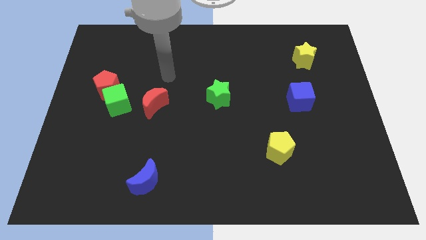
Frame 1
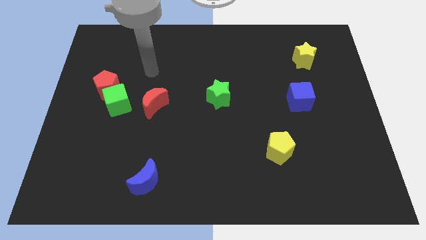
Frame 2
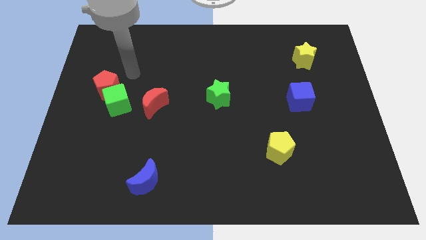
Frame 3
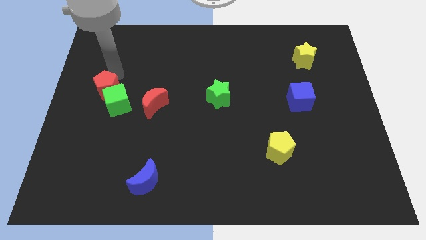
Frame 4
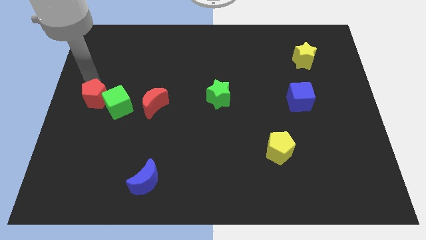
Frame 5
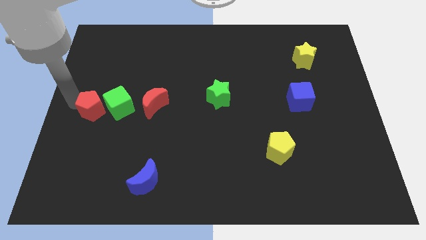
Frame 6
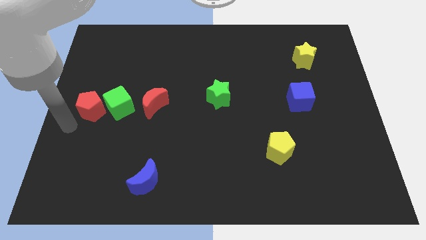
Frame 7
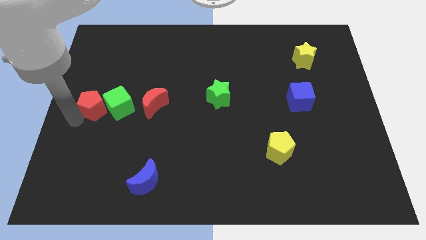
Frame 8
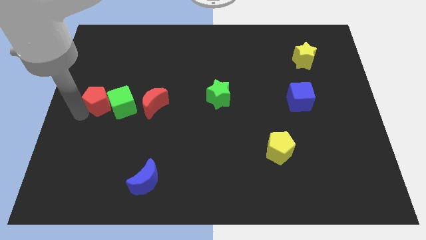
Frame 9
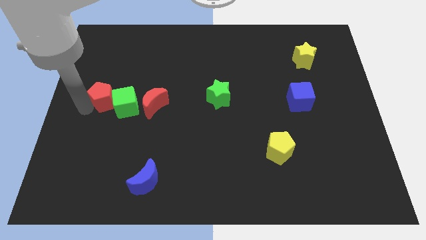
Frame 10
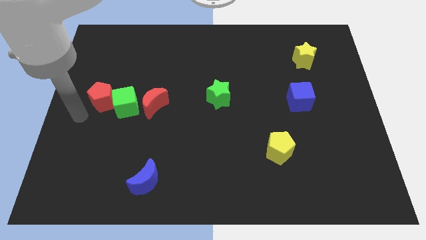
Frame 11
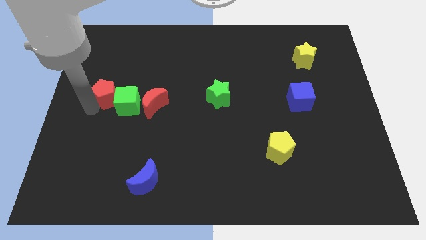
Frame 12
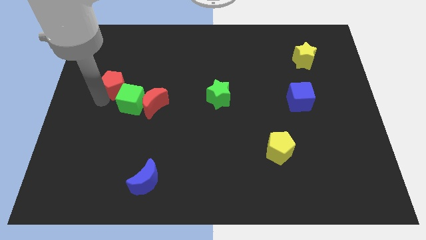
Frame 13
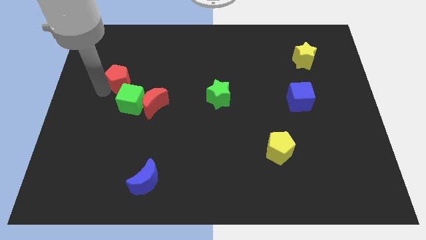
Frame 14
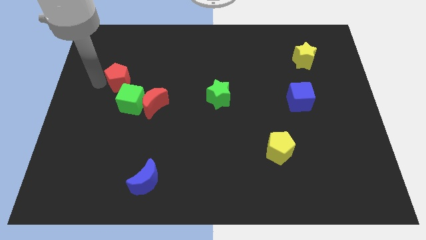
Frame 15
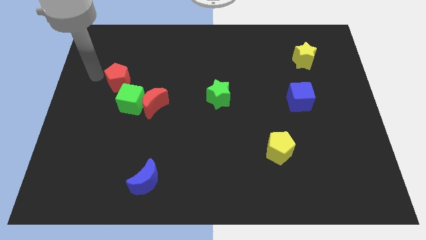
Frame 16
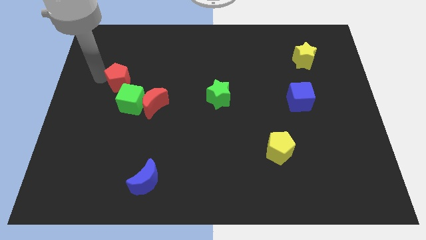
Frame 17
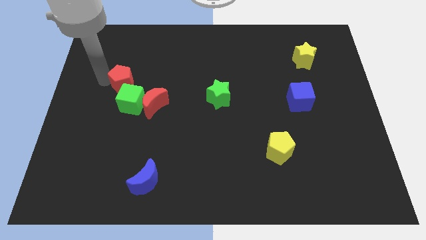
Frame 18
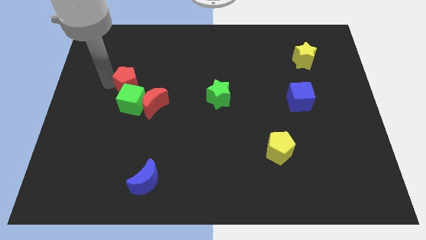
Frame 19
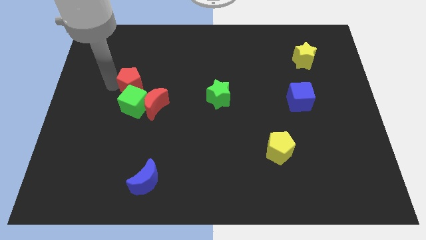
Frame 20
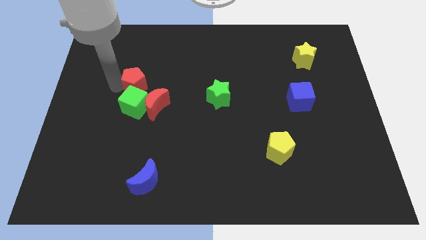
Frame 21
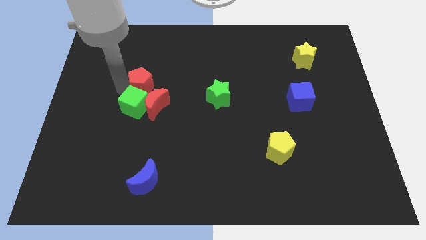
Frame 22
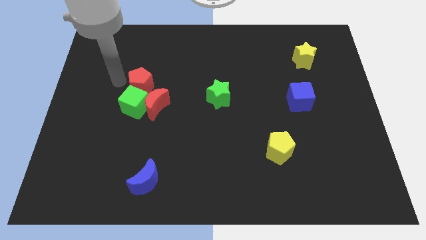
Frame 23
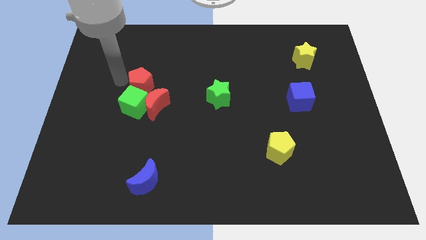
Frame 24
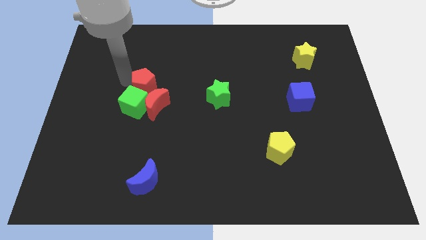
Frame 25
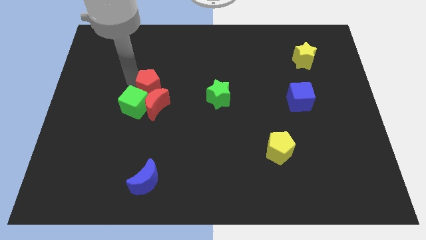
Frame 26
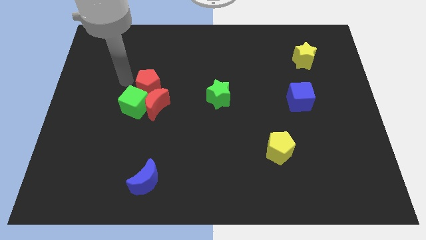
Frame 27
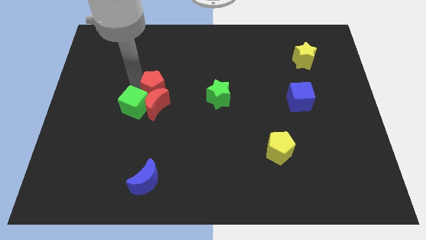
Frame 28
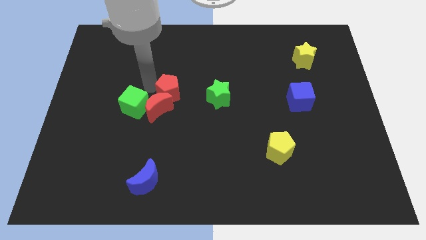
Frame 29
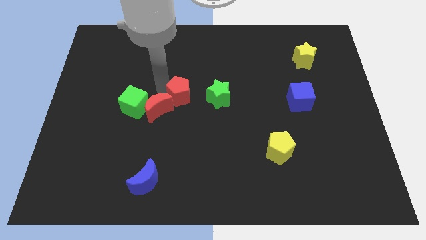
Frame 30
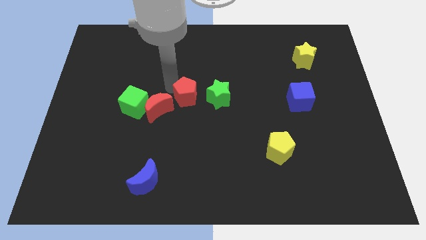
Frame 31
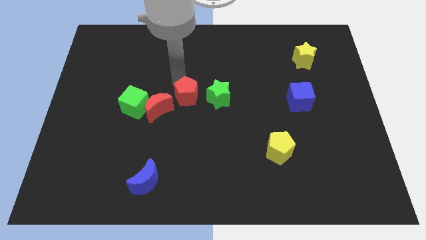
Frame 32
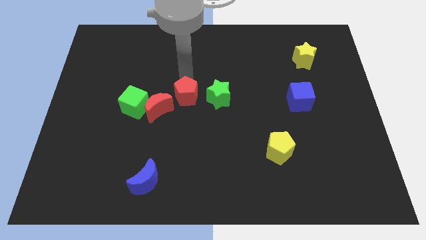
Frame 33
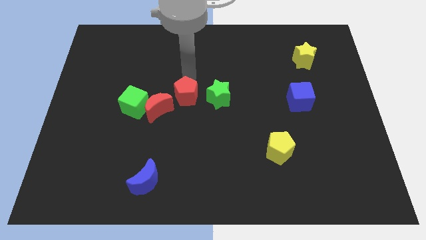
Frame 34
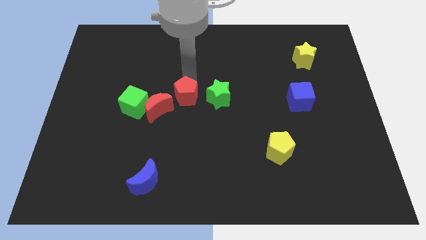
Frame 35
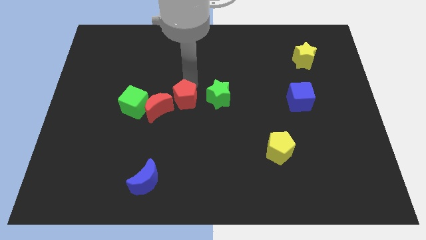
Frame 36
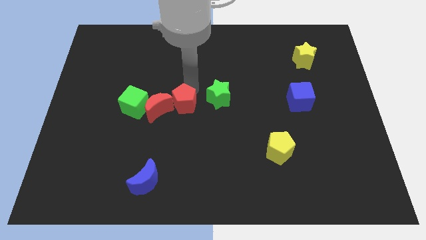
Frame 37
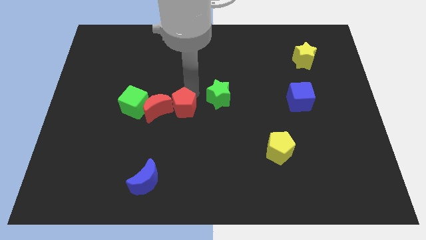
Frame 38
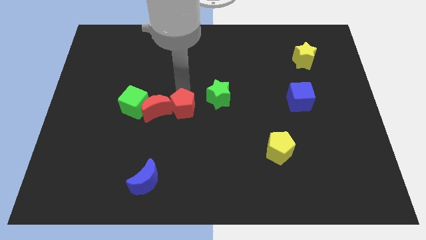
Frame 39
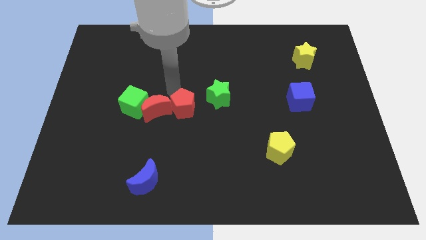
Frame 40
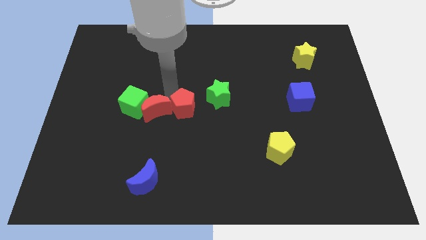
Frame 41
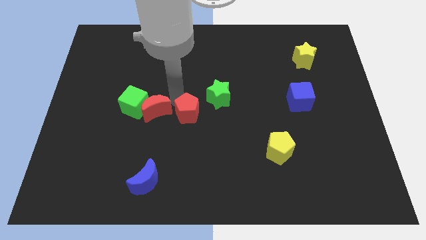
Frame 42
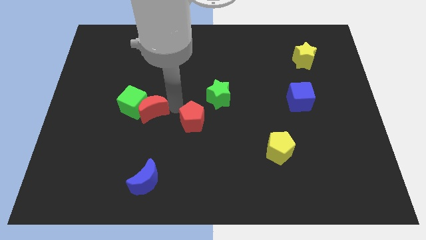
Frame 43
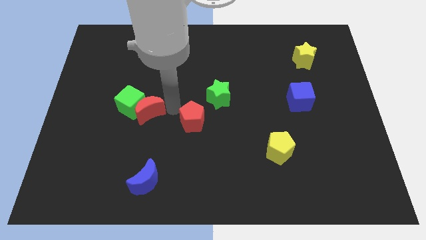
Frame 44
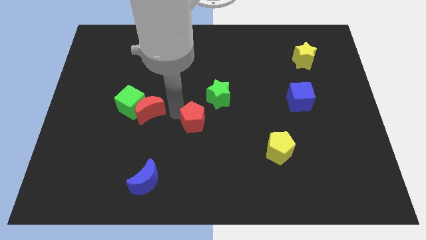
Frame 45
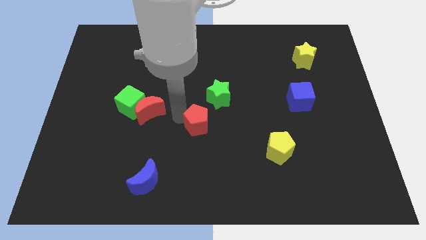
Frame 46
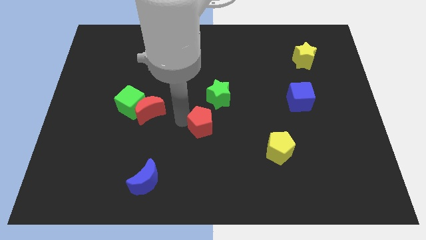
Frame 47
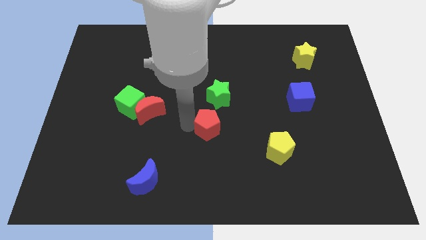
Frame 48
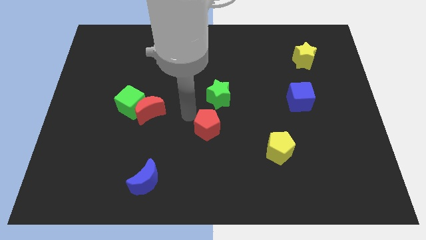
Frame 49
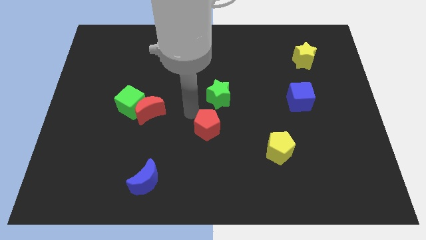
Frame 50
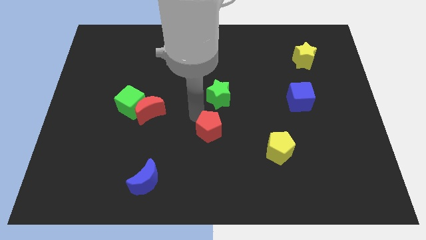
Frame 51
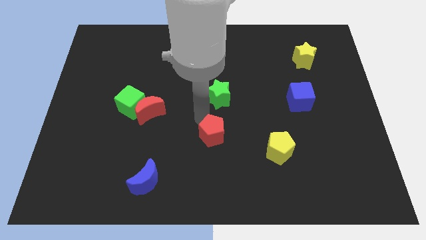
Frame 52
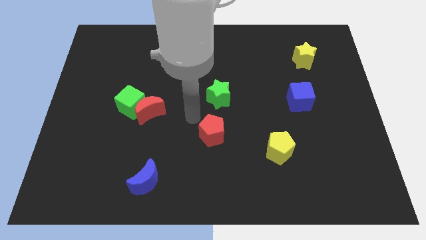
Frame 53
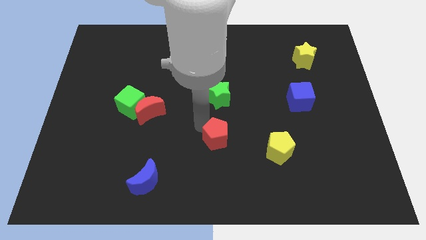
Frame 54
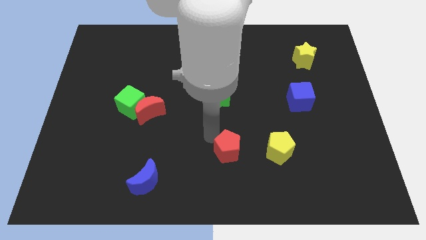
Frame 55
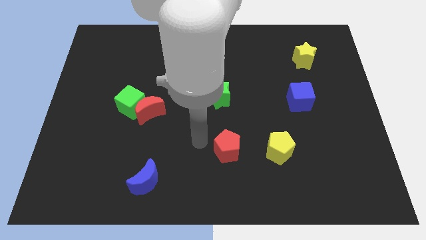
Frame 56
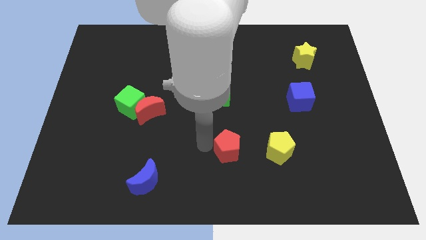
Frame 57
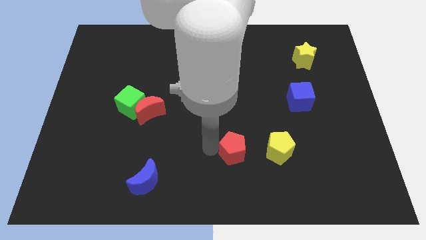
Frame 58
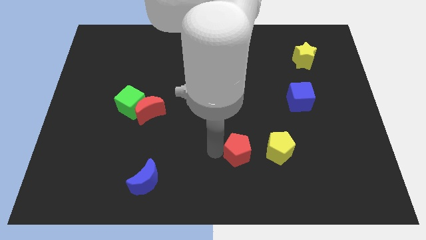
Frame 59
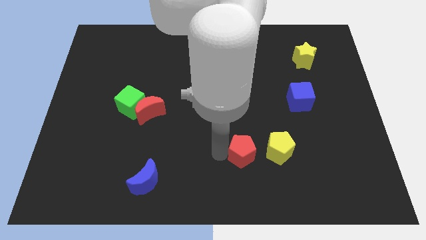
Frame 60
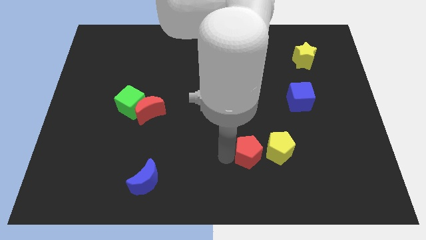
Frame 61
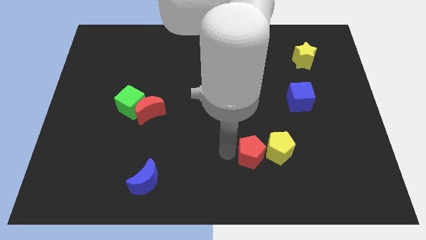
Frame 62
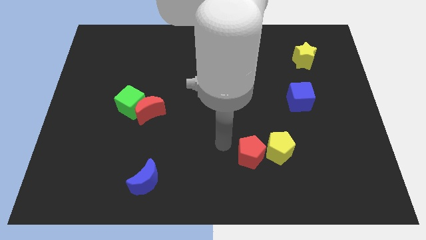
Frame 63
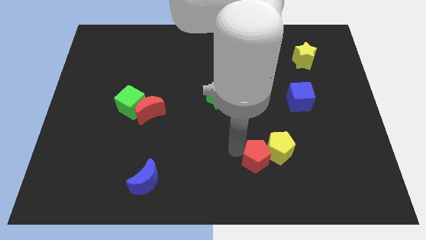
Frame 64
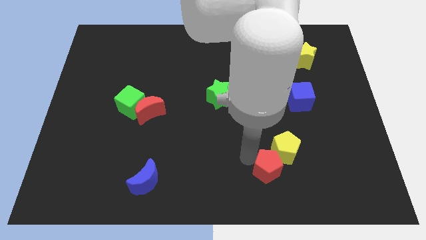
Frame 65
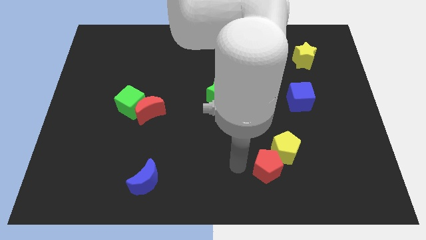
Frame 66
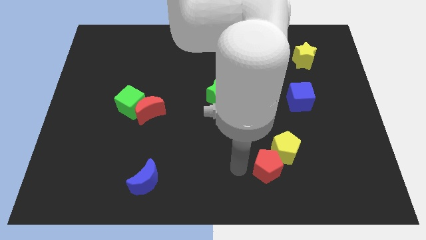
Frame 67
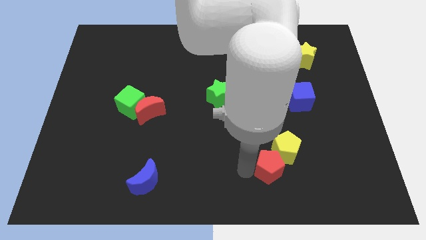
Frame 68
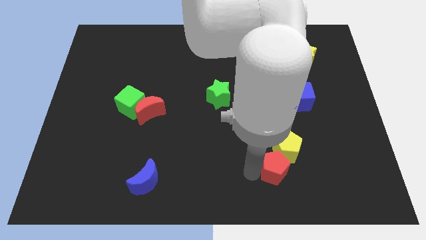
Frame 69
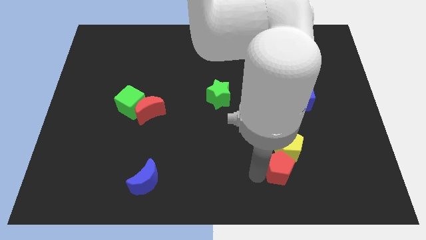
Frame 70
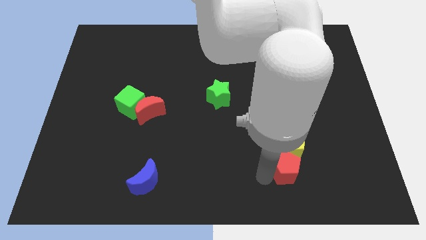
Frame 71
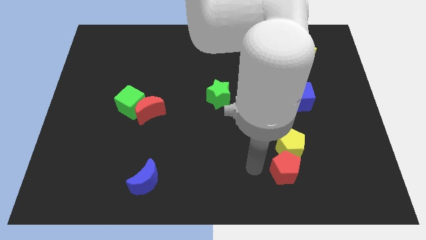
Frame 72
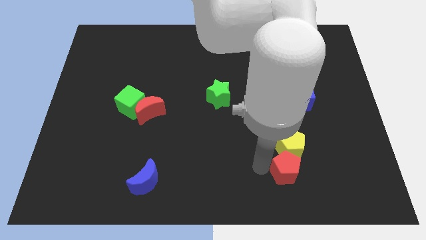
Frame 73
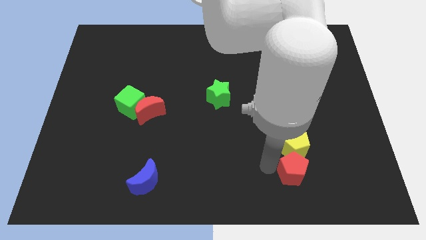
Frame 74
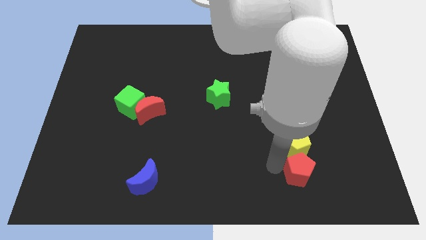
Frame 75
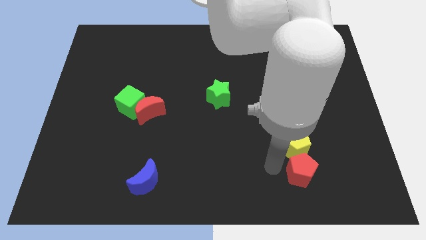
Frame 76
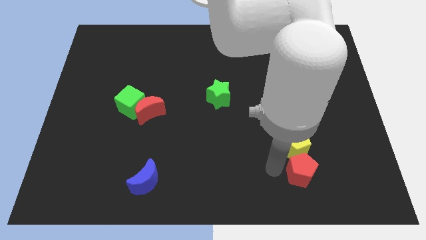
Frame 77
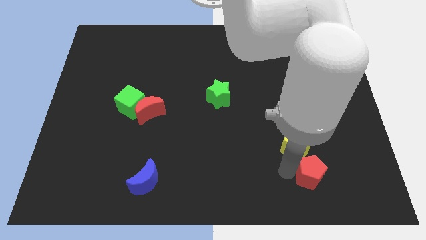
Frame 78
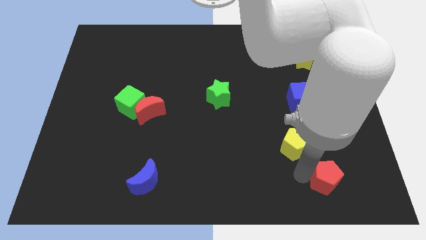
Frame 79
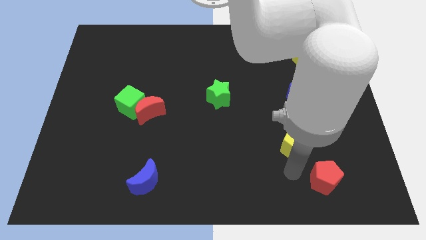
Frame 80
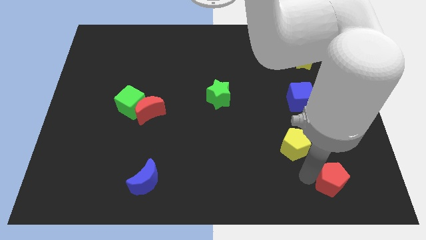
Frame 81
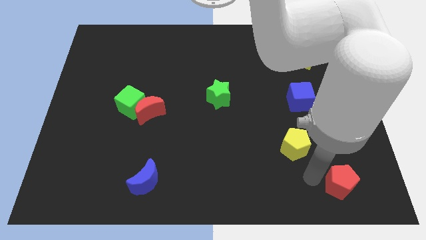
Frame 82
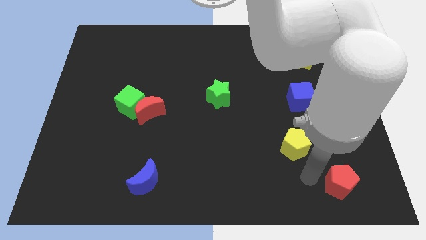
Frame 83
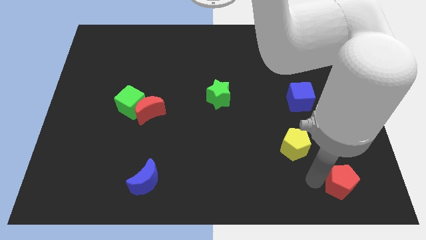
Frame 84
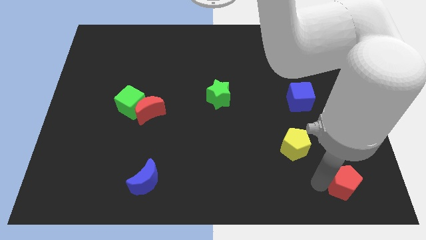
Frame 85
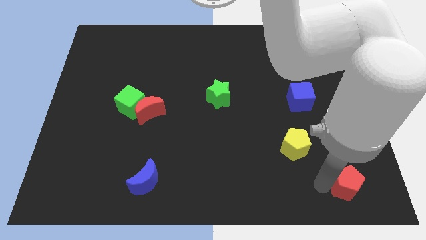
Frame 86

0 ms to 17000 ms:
slide the red pentagon to the bottom right corner
